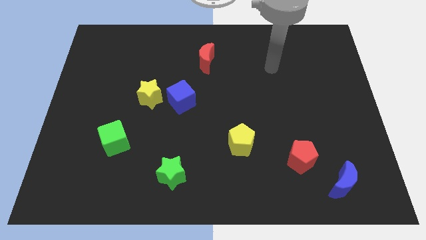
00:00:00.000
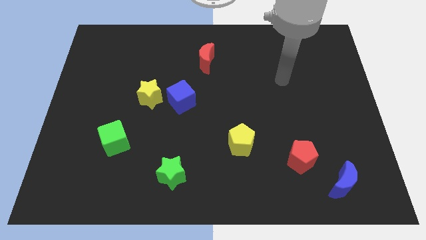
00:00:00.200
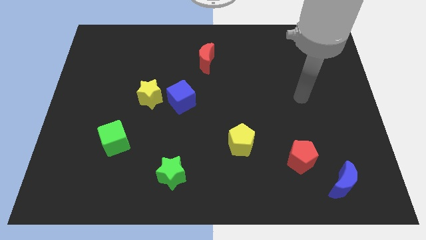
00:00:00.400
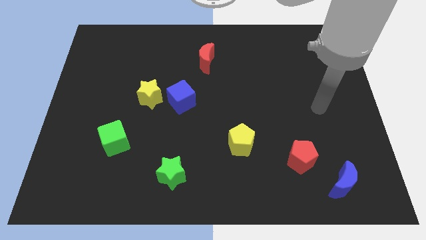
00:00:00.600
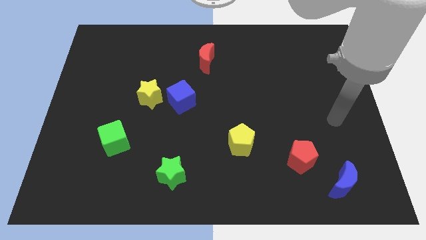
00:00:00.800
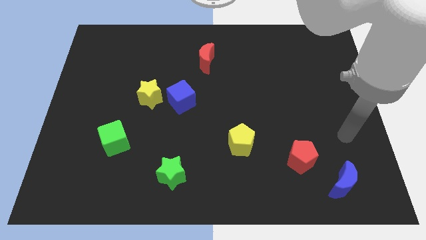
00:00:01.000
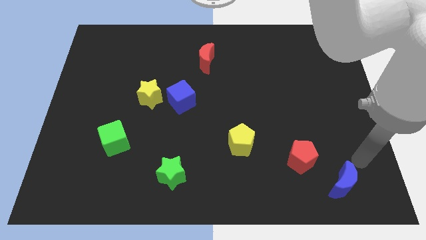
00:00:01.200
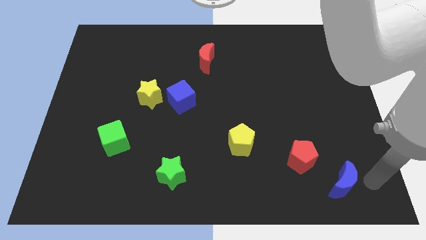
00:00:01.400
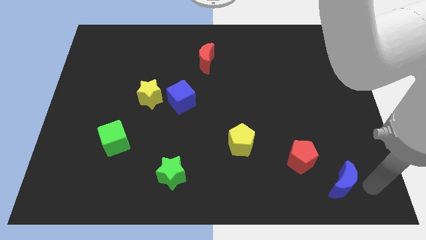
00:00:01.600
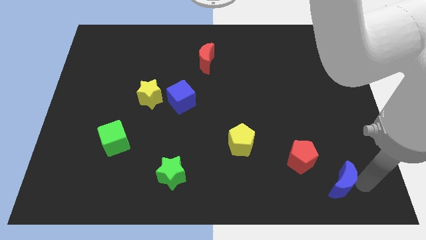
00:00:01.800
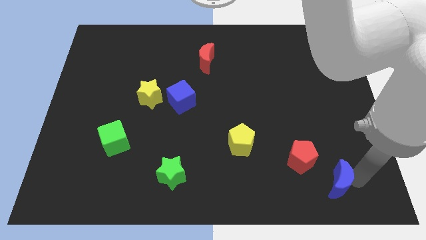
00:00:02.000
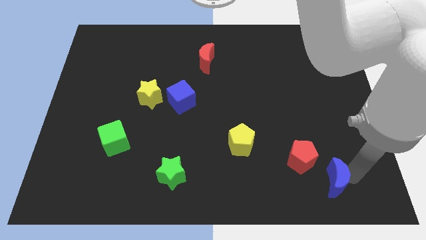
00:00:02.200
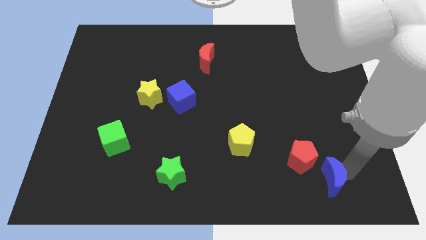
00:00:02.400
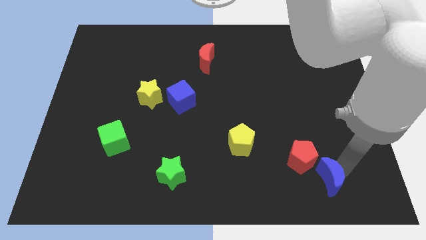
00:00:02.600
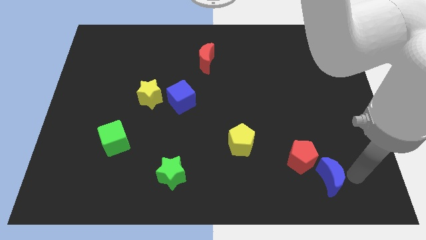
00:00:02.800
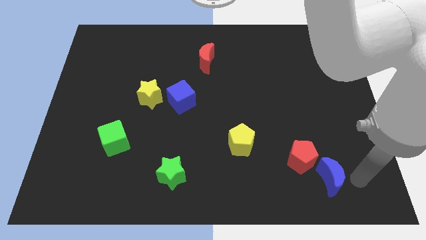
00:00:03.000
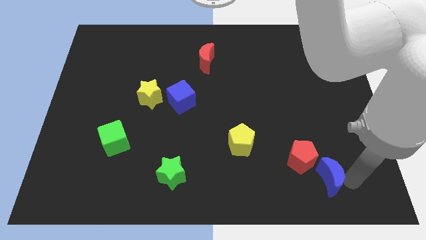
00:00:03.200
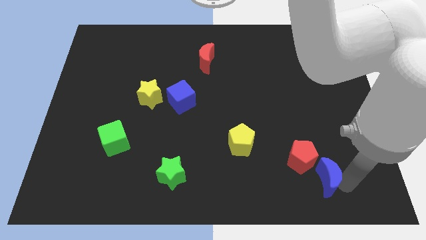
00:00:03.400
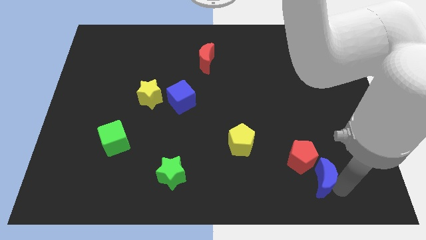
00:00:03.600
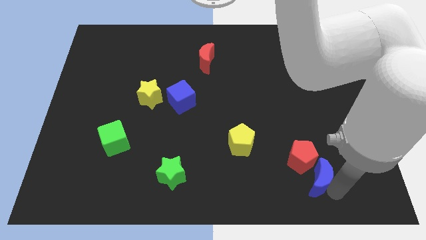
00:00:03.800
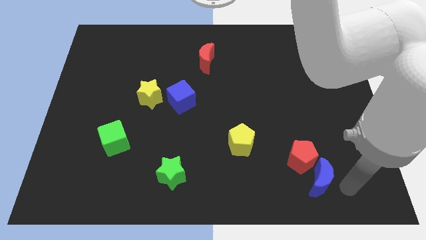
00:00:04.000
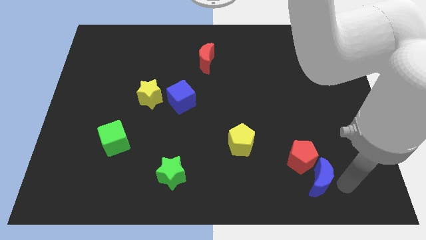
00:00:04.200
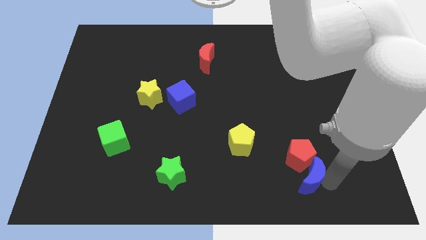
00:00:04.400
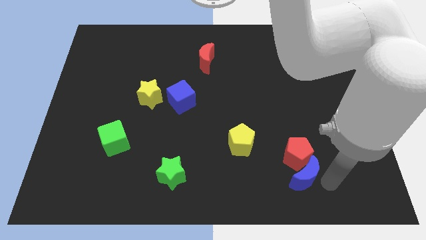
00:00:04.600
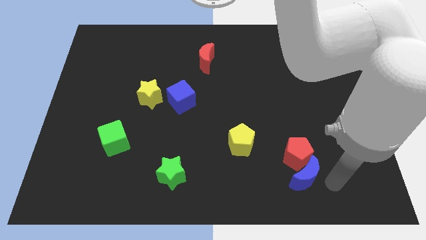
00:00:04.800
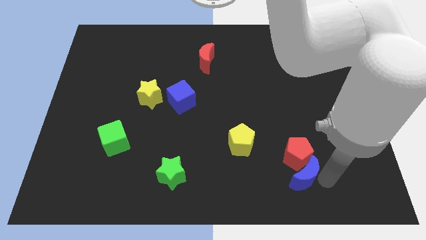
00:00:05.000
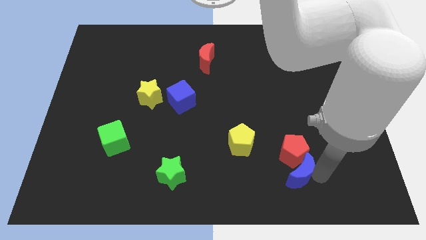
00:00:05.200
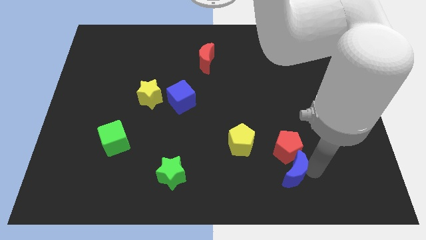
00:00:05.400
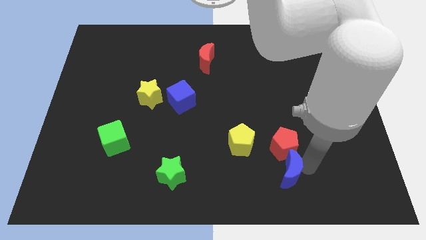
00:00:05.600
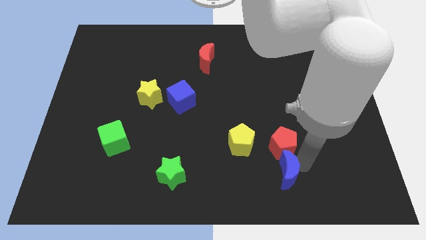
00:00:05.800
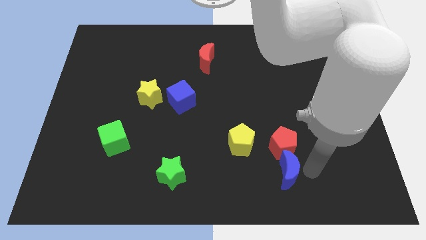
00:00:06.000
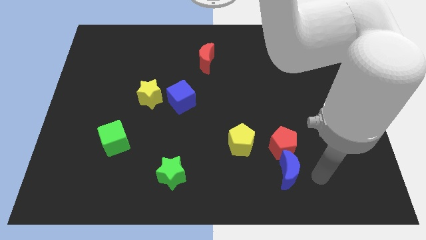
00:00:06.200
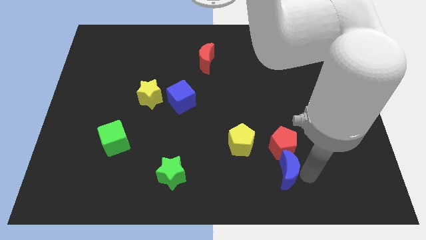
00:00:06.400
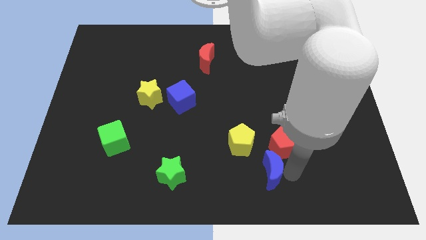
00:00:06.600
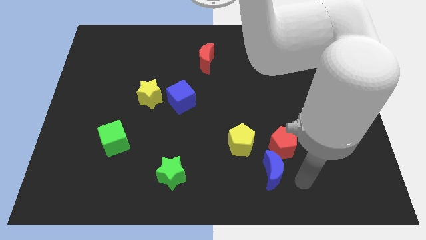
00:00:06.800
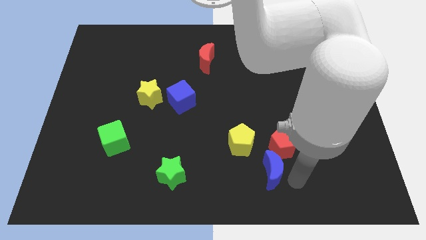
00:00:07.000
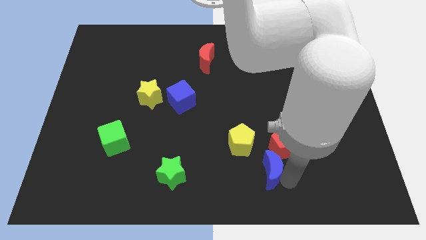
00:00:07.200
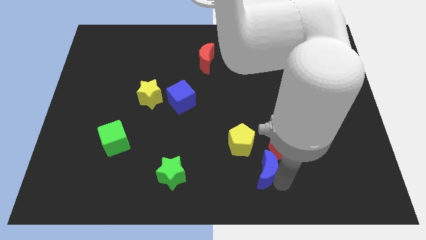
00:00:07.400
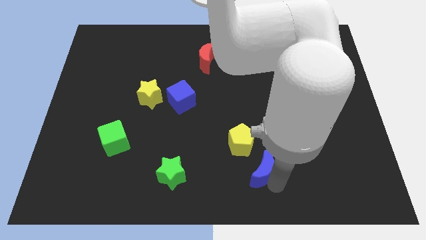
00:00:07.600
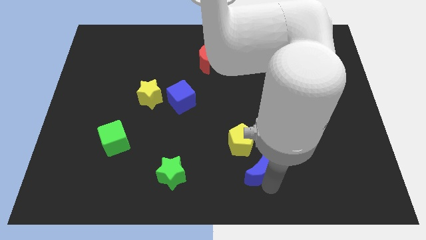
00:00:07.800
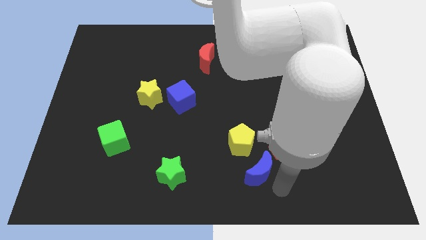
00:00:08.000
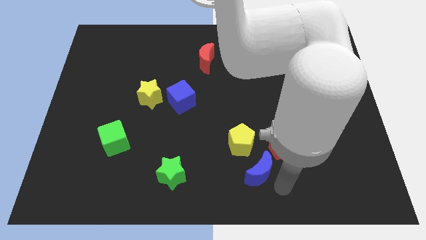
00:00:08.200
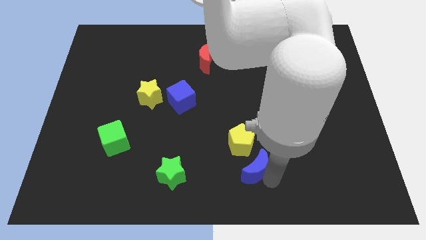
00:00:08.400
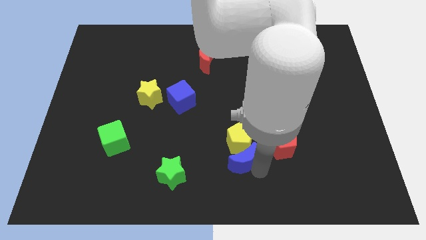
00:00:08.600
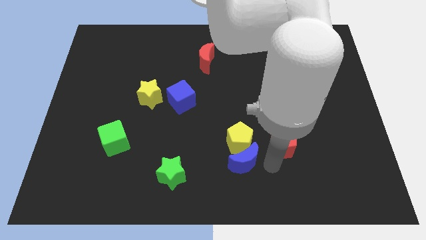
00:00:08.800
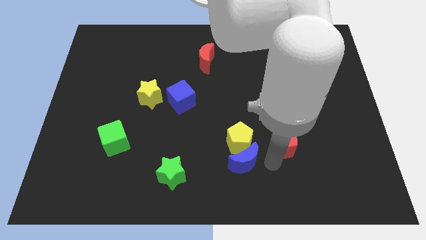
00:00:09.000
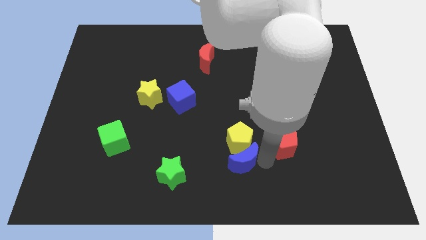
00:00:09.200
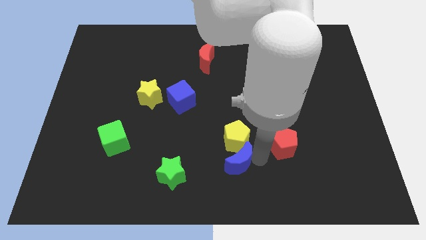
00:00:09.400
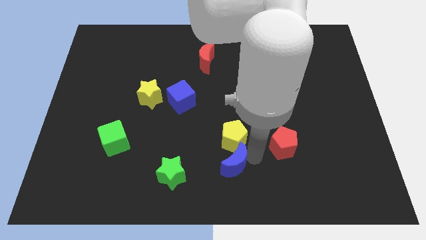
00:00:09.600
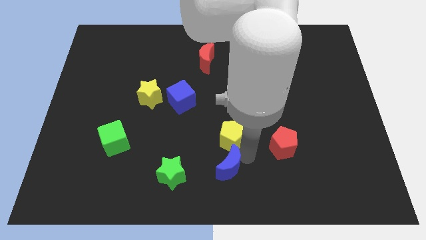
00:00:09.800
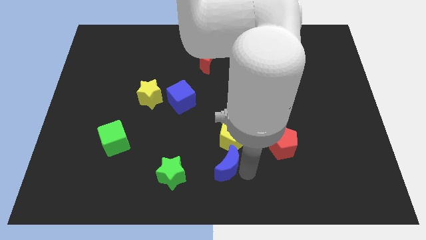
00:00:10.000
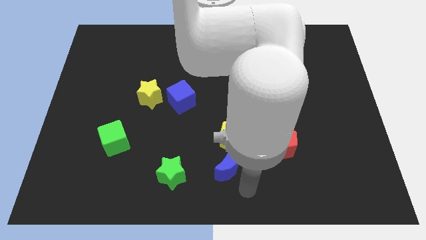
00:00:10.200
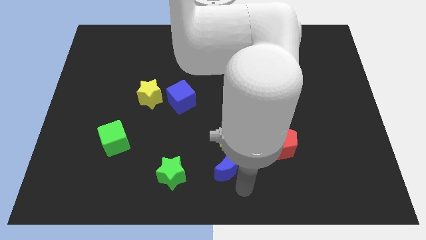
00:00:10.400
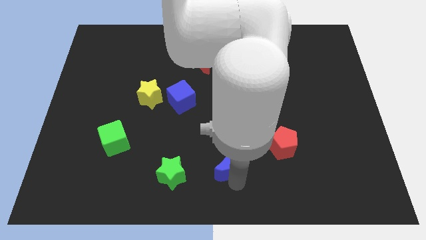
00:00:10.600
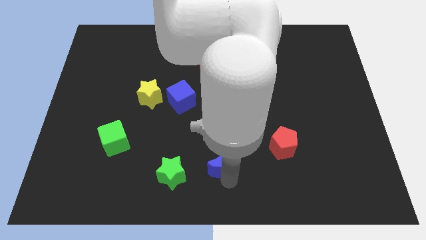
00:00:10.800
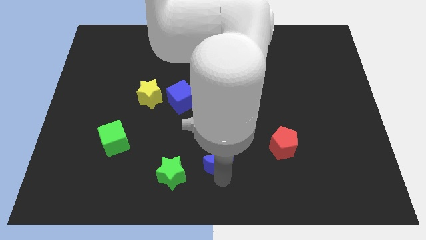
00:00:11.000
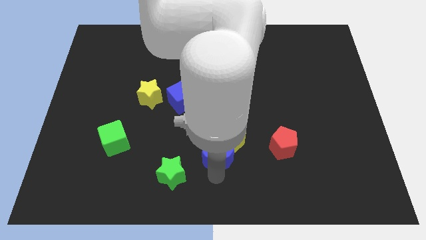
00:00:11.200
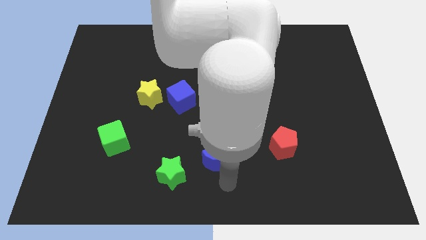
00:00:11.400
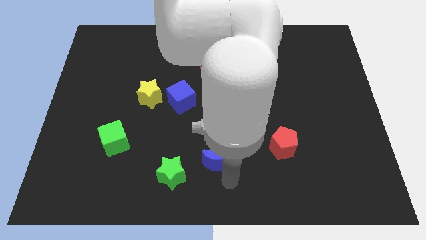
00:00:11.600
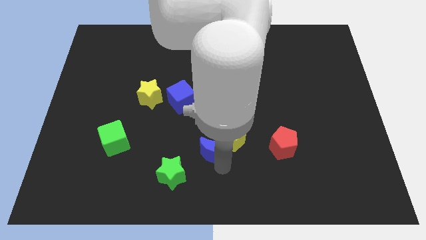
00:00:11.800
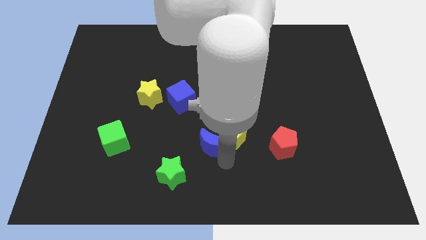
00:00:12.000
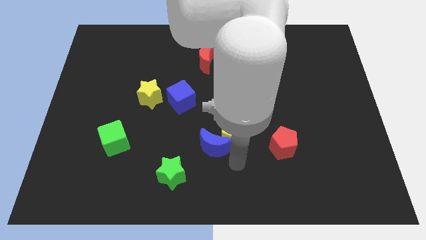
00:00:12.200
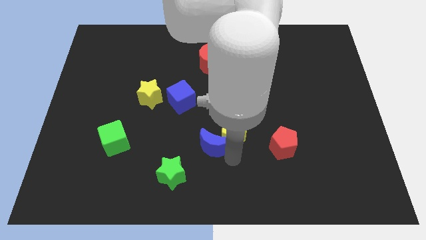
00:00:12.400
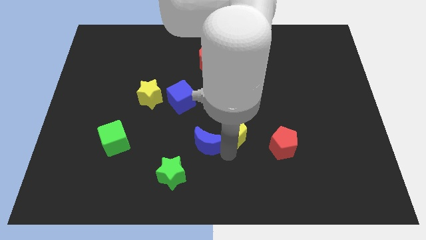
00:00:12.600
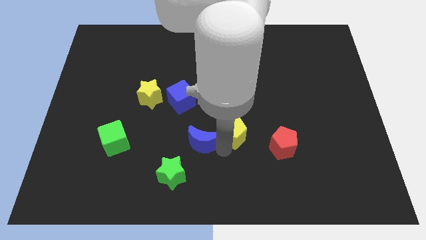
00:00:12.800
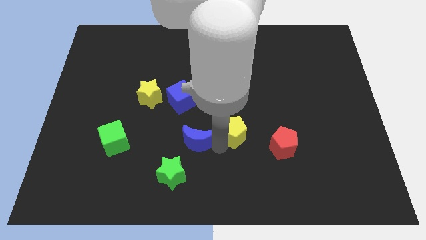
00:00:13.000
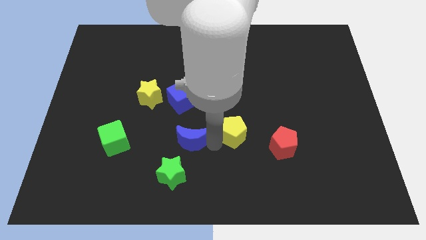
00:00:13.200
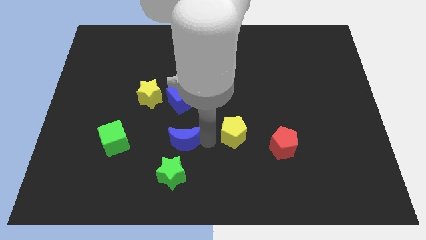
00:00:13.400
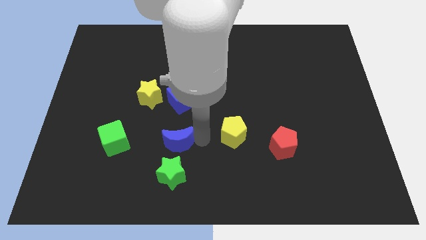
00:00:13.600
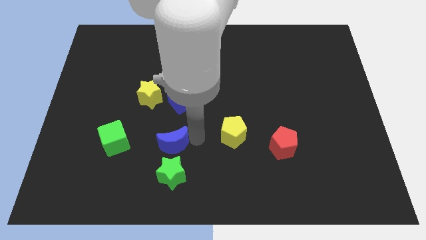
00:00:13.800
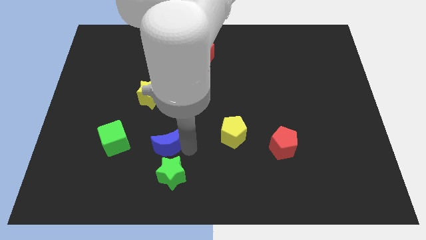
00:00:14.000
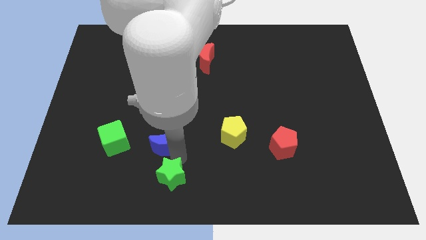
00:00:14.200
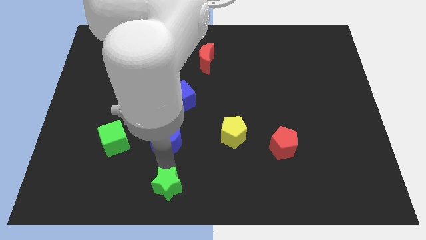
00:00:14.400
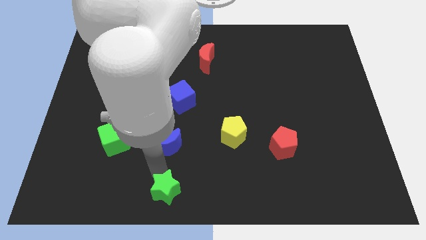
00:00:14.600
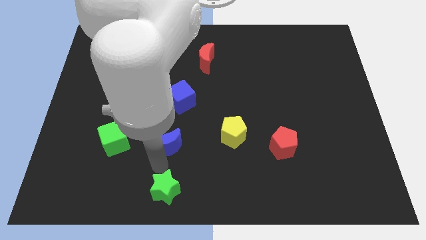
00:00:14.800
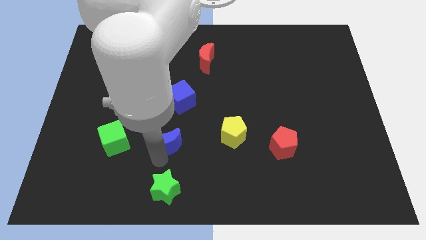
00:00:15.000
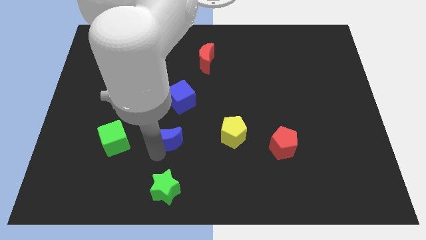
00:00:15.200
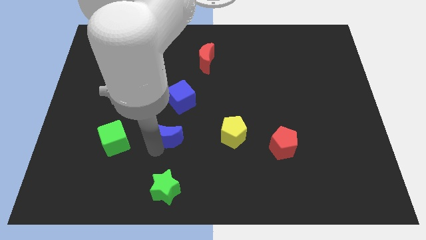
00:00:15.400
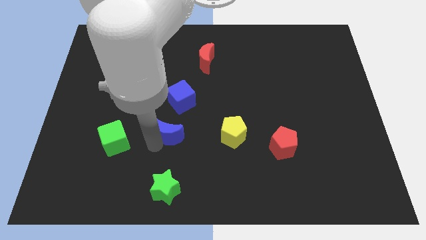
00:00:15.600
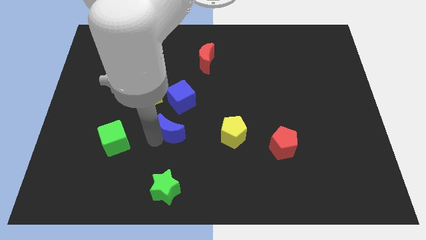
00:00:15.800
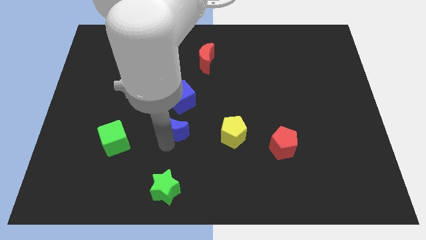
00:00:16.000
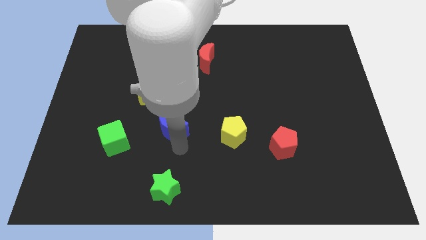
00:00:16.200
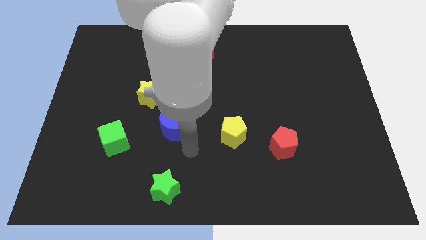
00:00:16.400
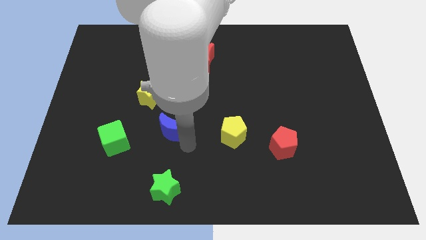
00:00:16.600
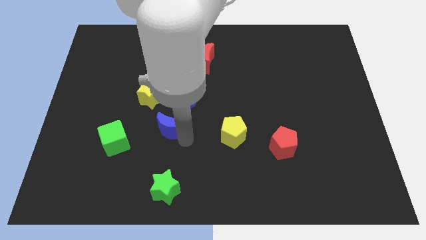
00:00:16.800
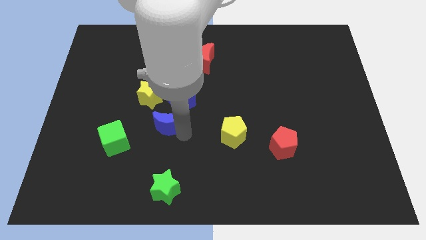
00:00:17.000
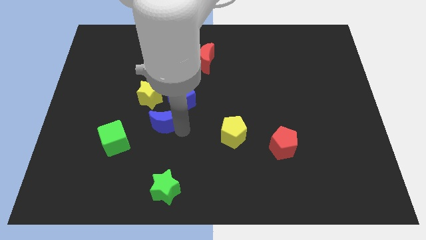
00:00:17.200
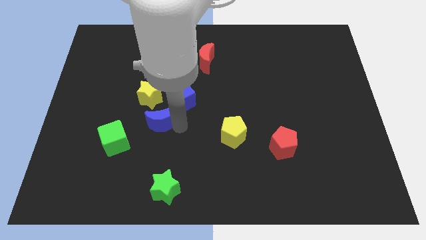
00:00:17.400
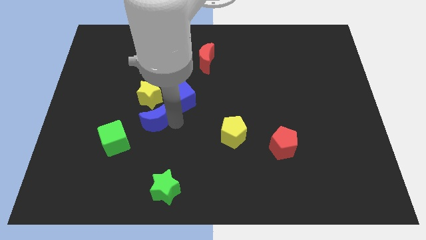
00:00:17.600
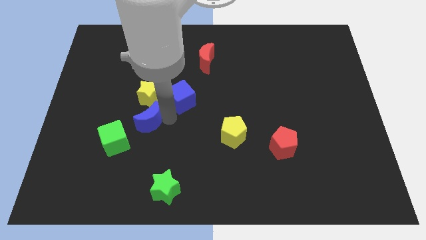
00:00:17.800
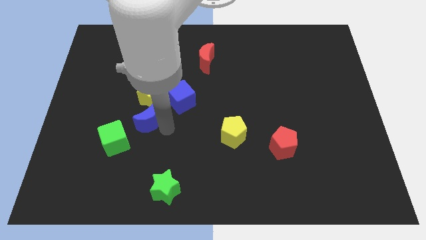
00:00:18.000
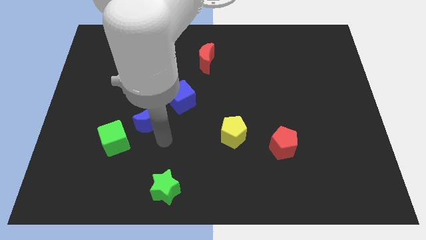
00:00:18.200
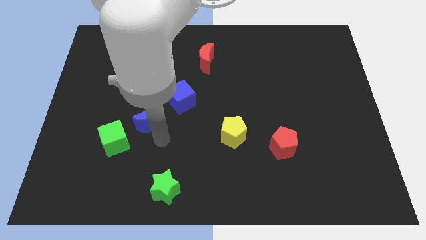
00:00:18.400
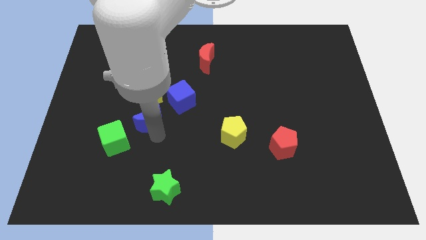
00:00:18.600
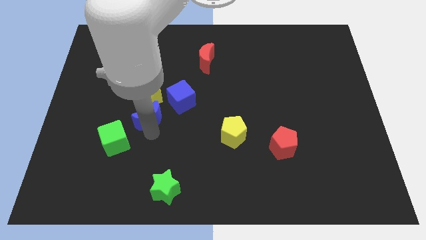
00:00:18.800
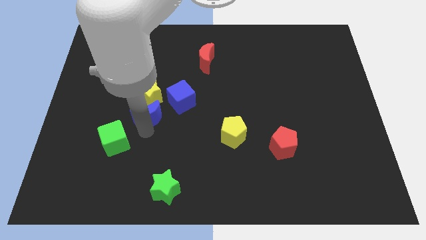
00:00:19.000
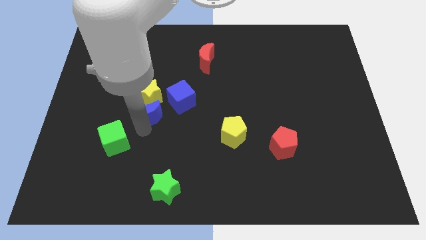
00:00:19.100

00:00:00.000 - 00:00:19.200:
slide the blue moon just left of the blue cube
